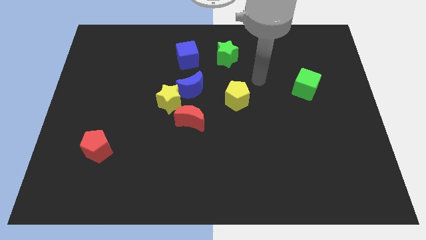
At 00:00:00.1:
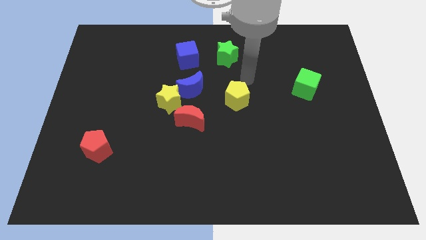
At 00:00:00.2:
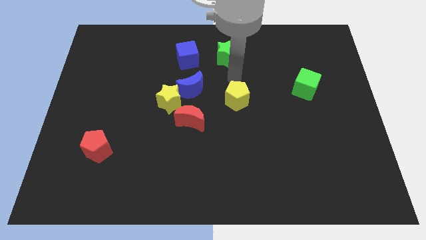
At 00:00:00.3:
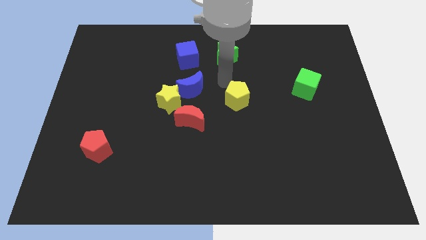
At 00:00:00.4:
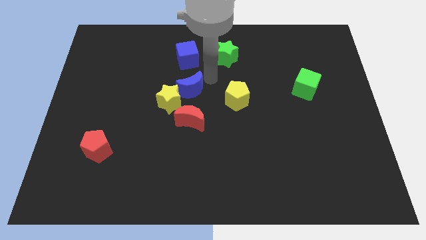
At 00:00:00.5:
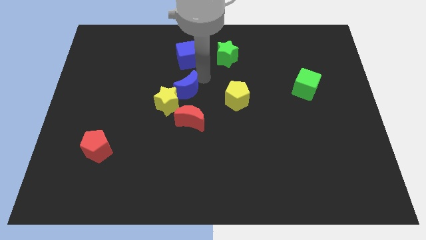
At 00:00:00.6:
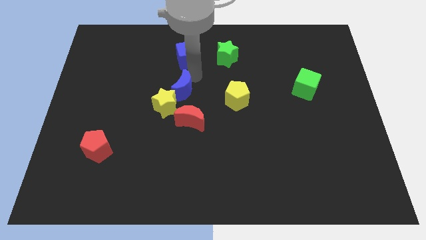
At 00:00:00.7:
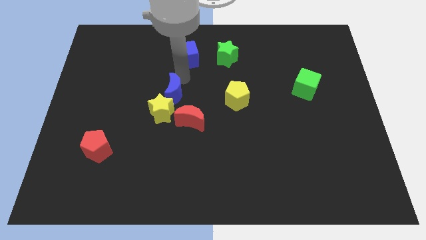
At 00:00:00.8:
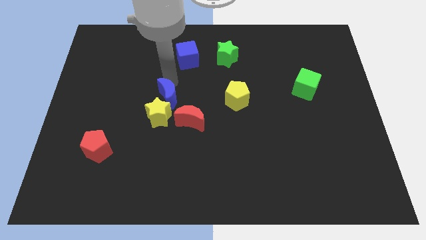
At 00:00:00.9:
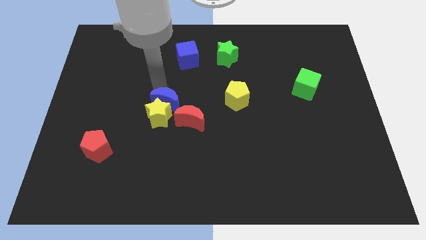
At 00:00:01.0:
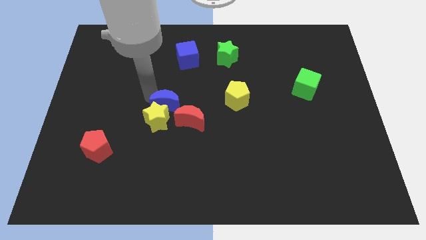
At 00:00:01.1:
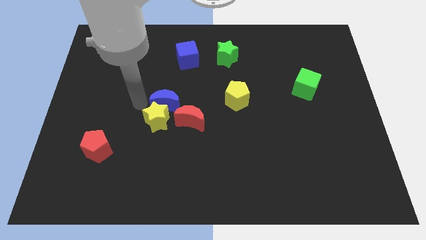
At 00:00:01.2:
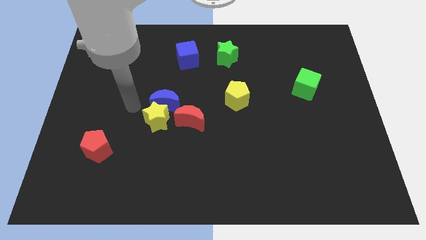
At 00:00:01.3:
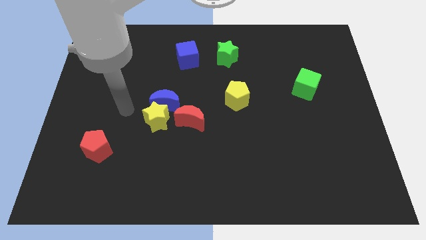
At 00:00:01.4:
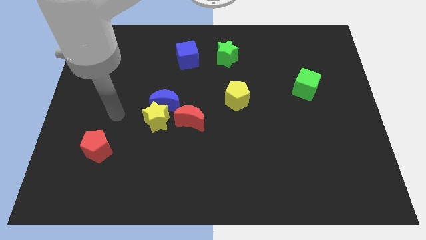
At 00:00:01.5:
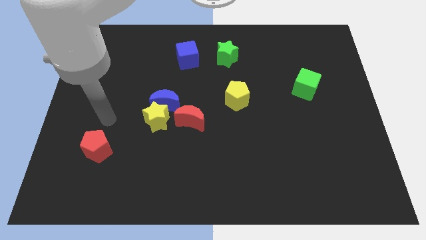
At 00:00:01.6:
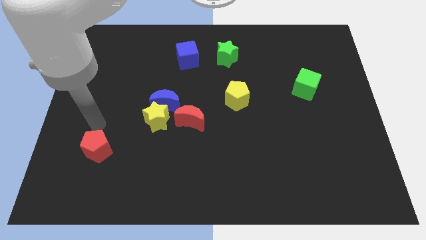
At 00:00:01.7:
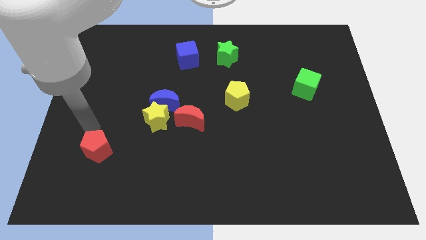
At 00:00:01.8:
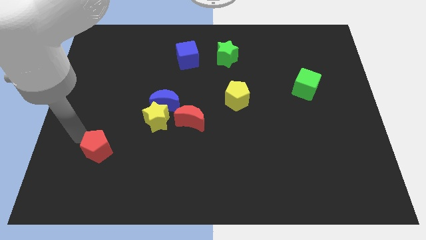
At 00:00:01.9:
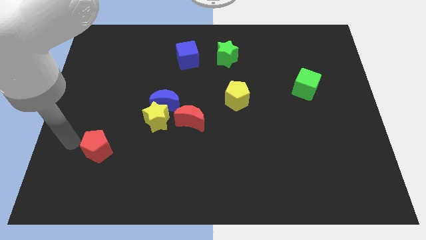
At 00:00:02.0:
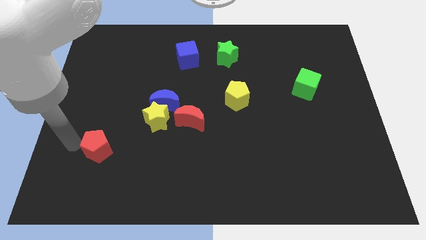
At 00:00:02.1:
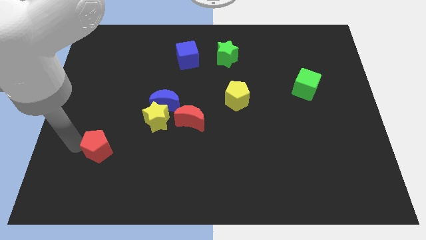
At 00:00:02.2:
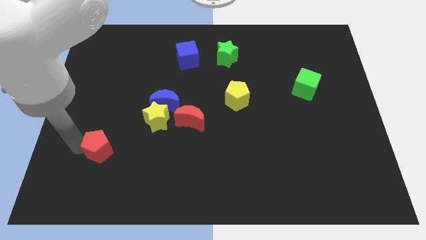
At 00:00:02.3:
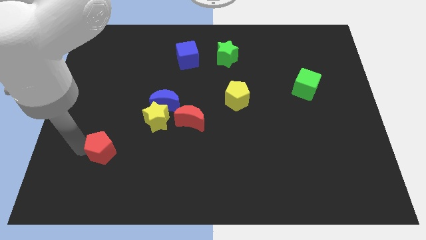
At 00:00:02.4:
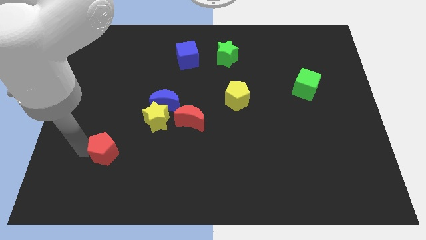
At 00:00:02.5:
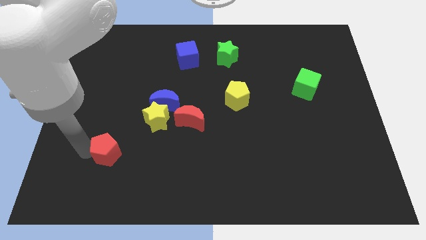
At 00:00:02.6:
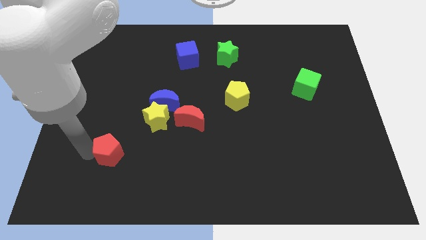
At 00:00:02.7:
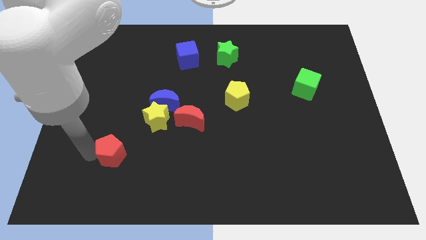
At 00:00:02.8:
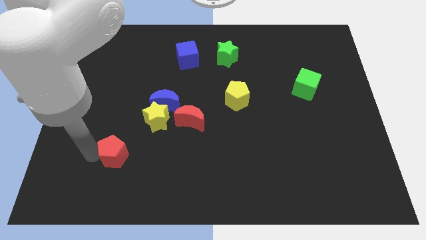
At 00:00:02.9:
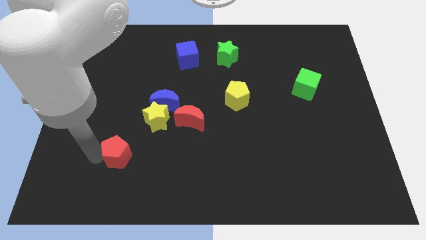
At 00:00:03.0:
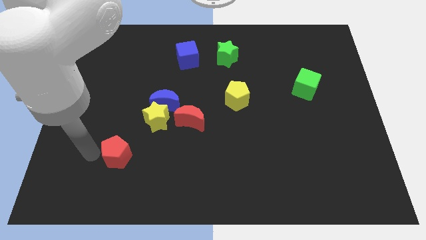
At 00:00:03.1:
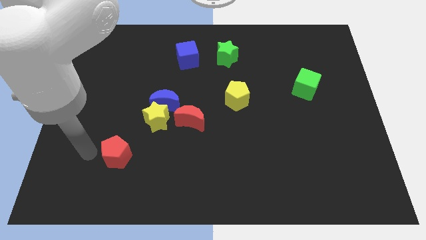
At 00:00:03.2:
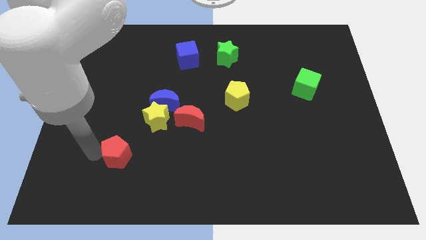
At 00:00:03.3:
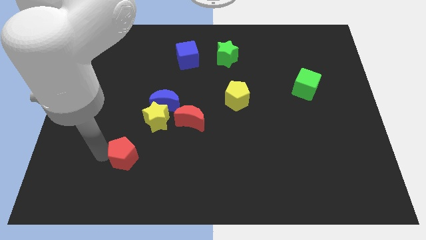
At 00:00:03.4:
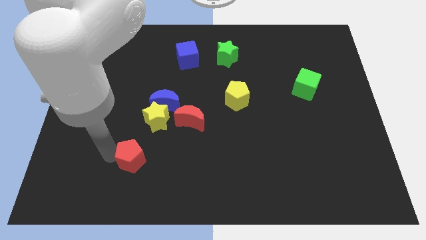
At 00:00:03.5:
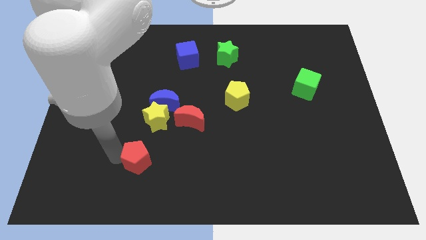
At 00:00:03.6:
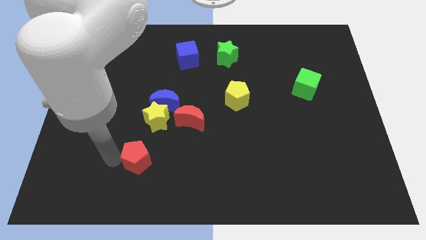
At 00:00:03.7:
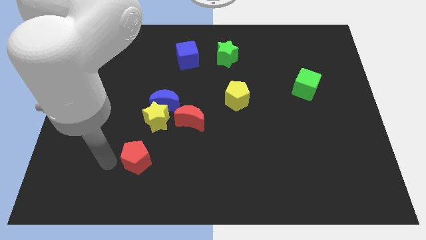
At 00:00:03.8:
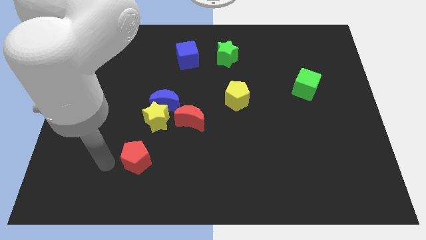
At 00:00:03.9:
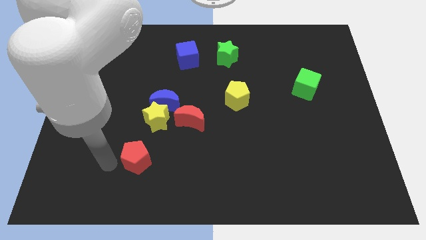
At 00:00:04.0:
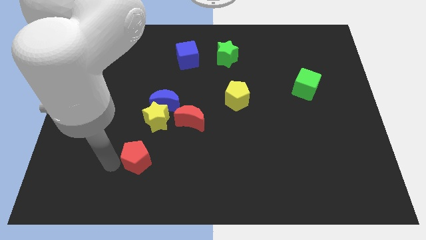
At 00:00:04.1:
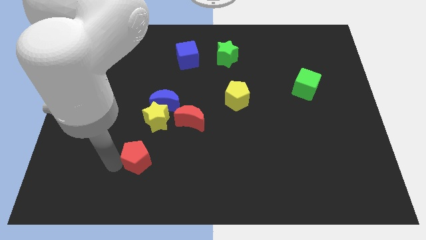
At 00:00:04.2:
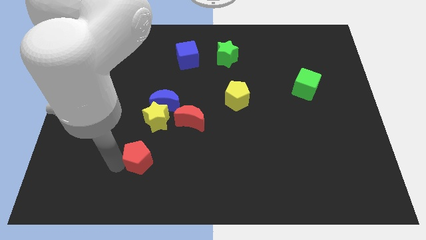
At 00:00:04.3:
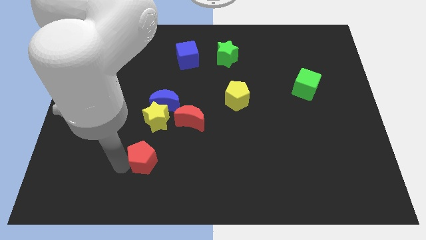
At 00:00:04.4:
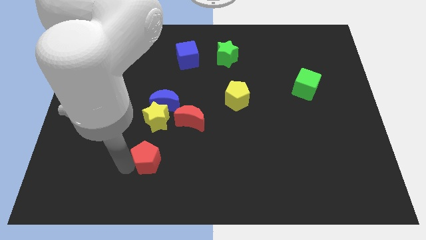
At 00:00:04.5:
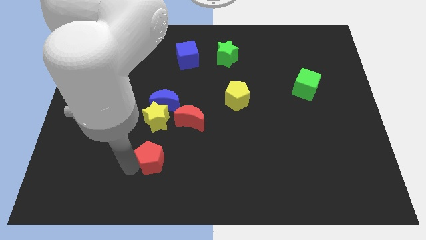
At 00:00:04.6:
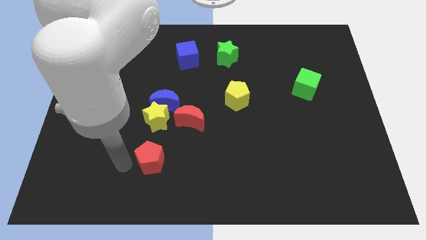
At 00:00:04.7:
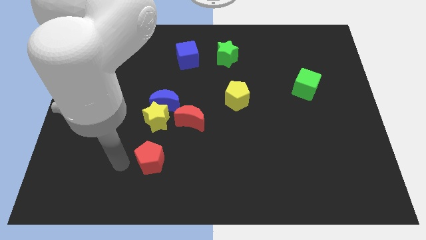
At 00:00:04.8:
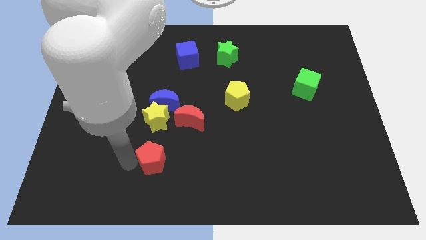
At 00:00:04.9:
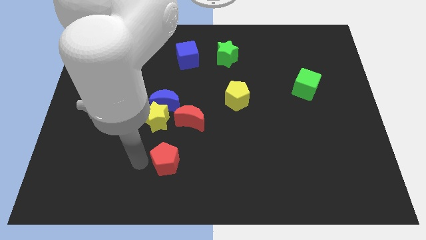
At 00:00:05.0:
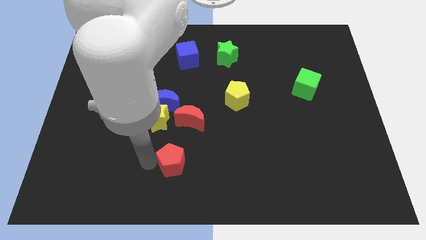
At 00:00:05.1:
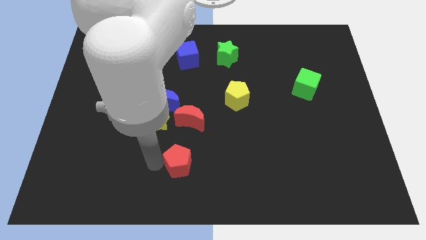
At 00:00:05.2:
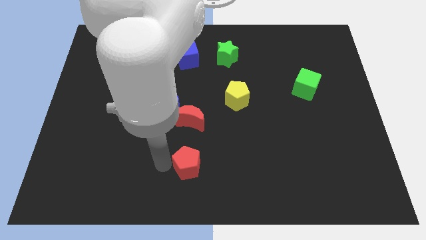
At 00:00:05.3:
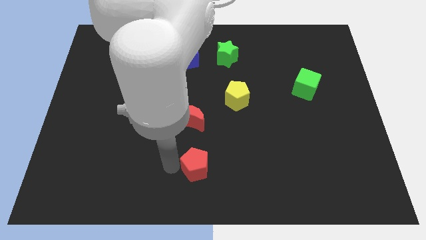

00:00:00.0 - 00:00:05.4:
slide the red pentagon right

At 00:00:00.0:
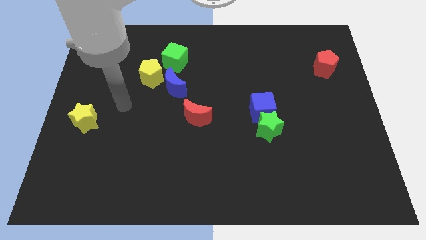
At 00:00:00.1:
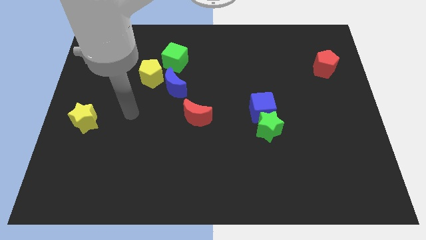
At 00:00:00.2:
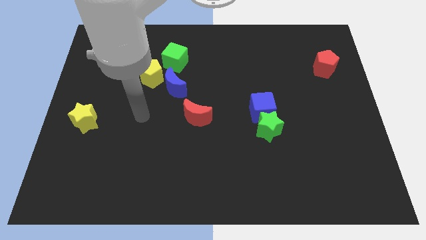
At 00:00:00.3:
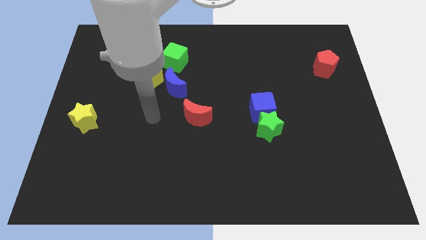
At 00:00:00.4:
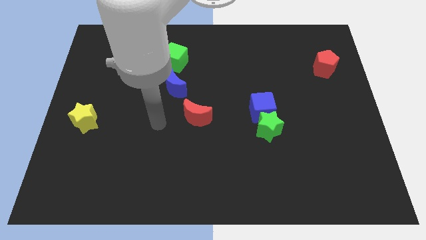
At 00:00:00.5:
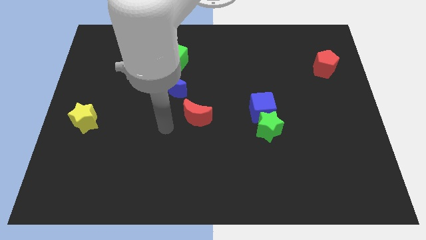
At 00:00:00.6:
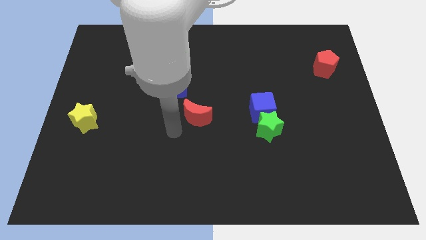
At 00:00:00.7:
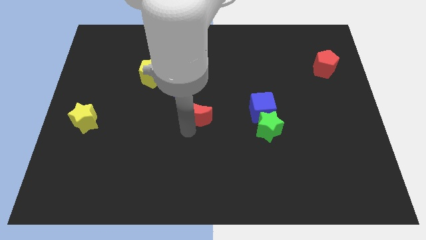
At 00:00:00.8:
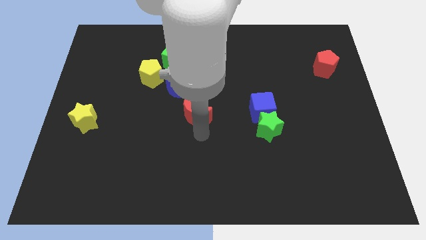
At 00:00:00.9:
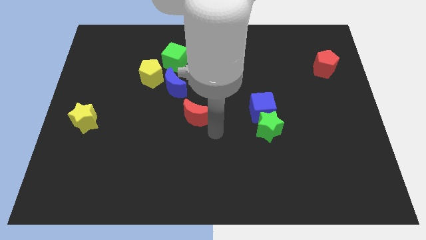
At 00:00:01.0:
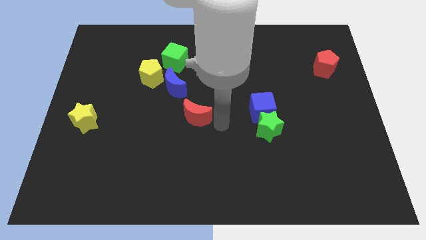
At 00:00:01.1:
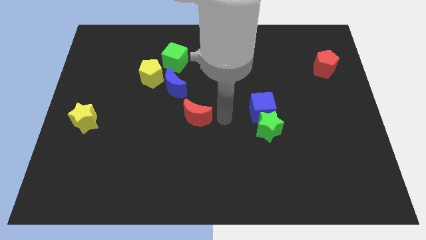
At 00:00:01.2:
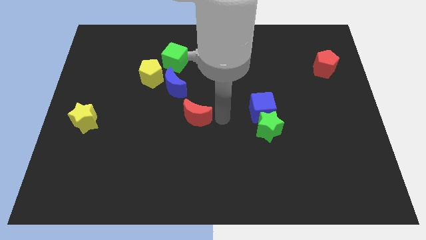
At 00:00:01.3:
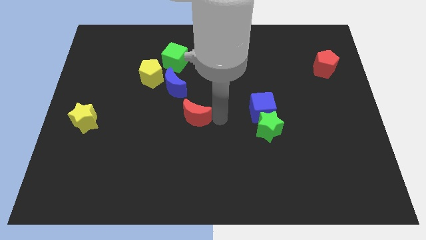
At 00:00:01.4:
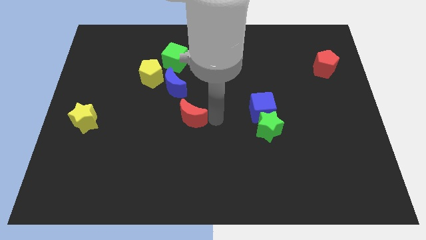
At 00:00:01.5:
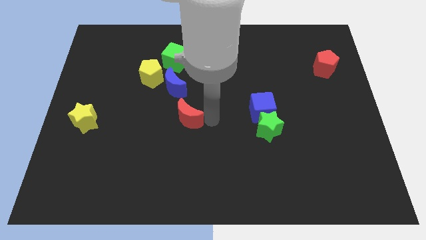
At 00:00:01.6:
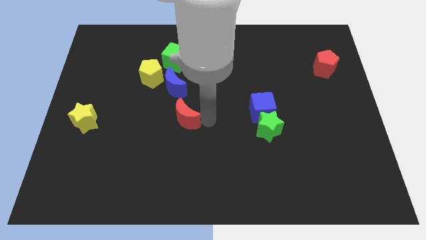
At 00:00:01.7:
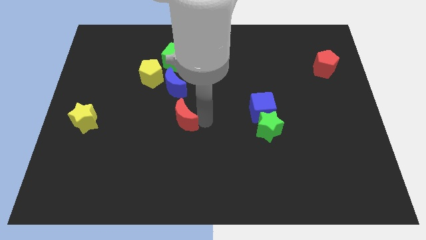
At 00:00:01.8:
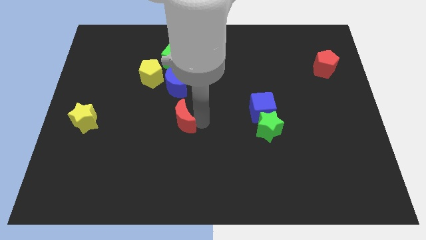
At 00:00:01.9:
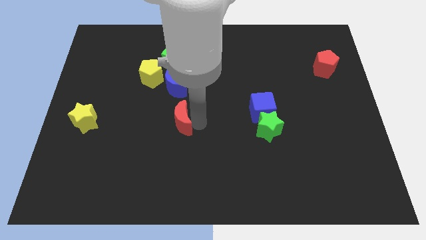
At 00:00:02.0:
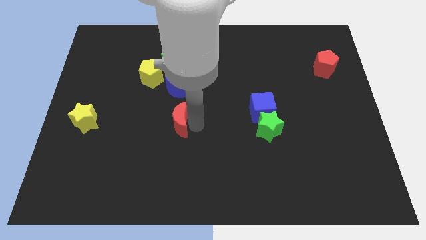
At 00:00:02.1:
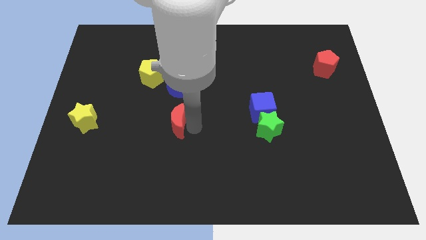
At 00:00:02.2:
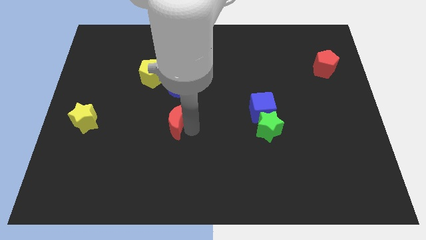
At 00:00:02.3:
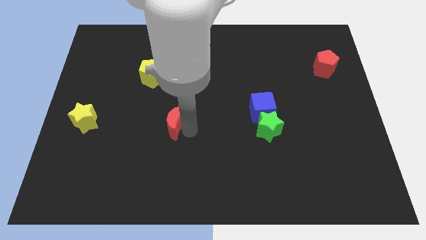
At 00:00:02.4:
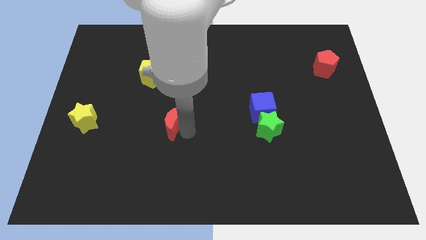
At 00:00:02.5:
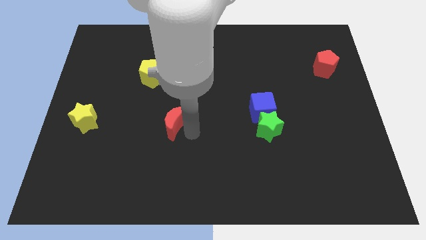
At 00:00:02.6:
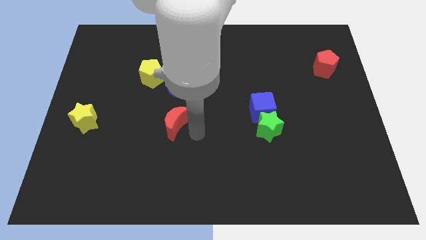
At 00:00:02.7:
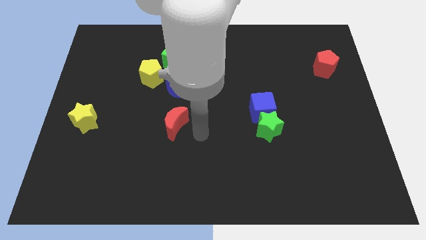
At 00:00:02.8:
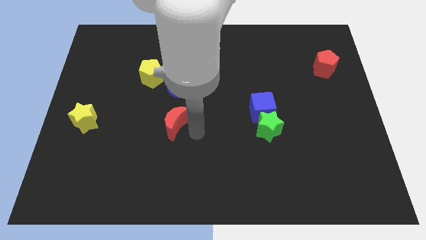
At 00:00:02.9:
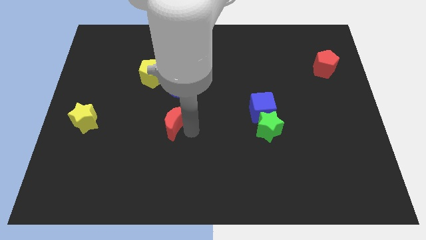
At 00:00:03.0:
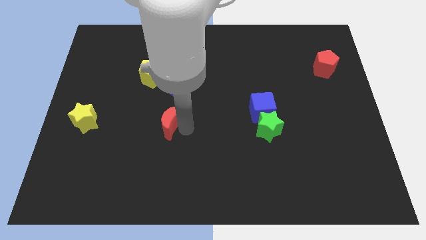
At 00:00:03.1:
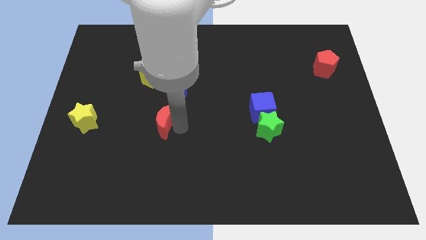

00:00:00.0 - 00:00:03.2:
push the red moon a little bit to the left
